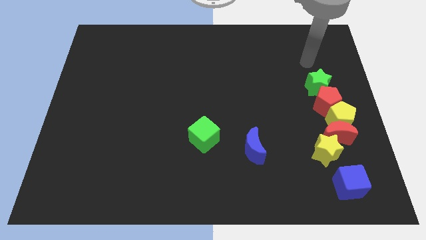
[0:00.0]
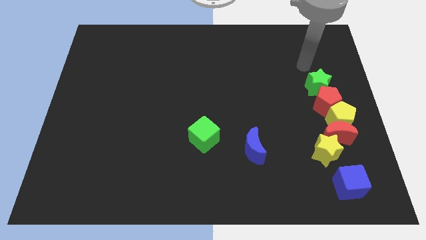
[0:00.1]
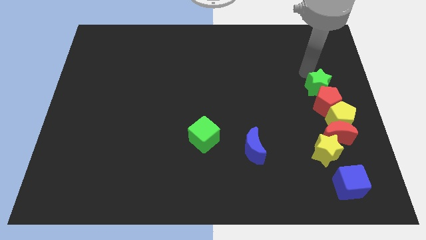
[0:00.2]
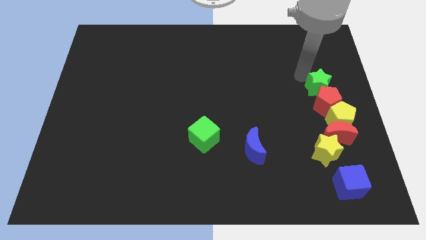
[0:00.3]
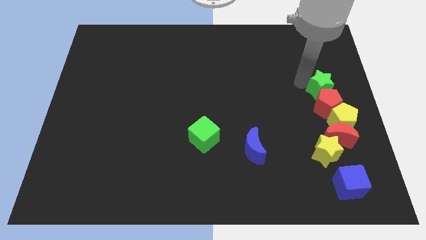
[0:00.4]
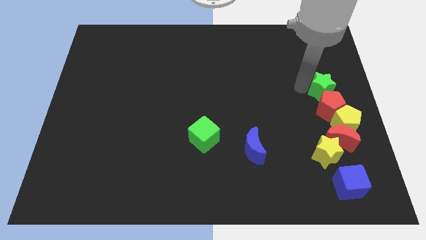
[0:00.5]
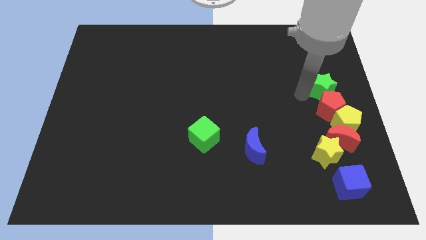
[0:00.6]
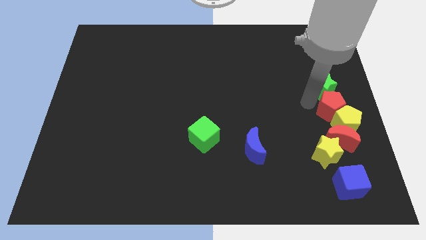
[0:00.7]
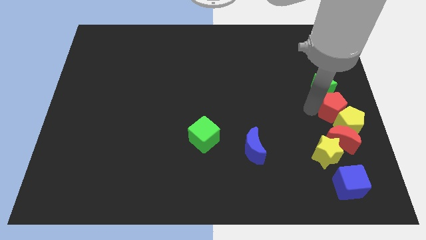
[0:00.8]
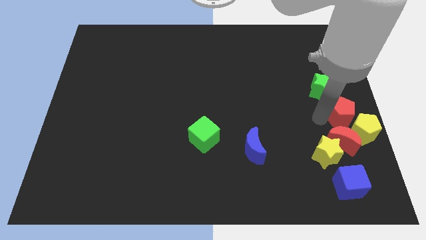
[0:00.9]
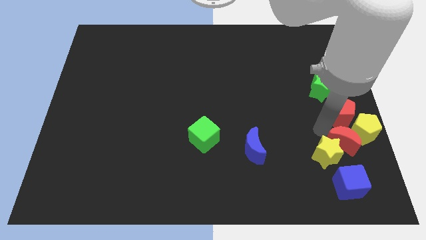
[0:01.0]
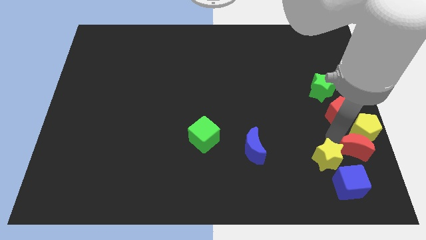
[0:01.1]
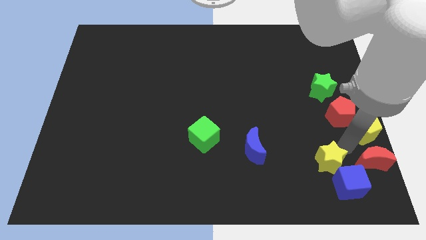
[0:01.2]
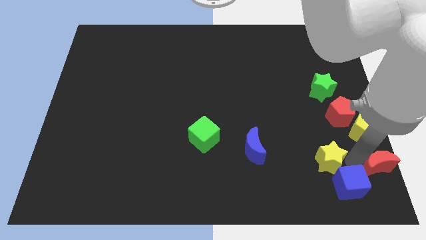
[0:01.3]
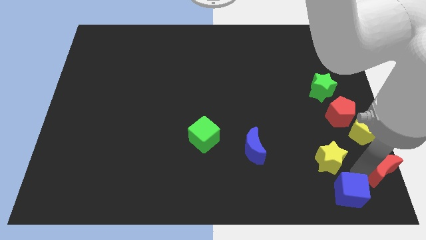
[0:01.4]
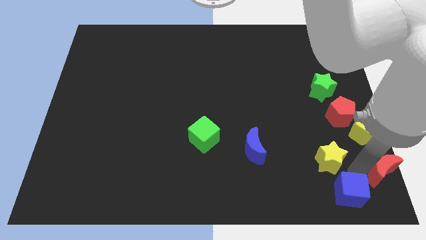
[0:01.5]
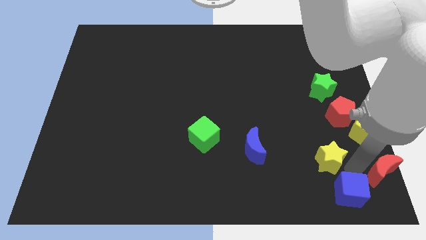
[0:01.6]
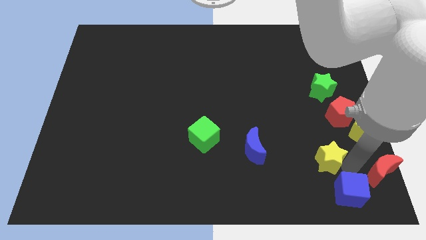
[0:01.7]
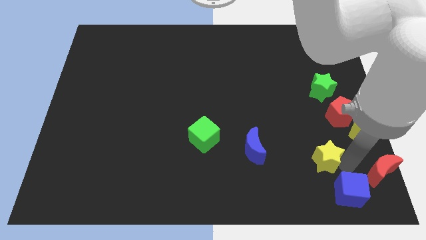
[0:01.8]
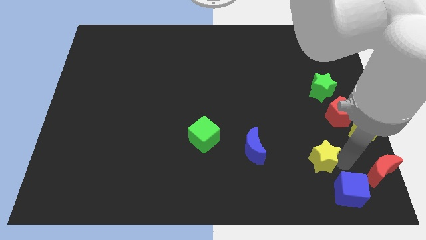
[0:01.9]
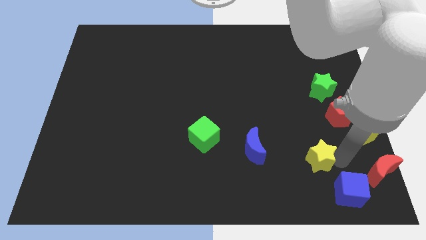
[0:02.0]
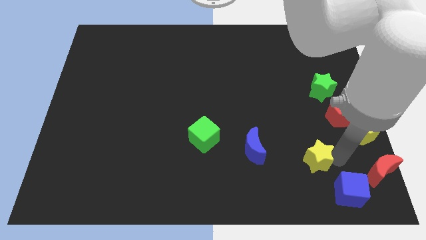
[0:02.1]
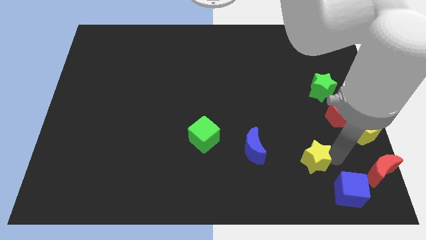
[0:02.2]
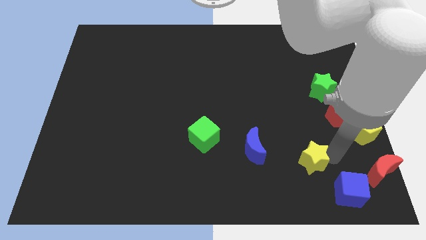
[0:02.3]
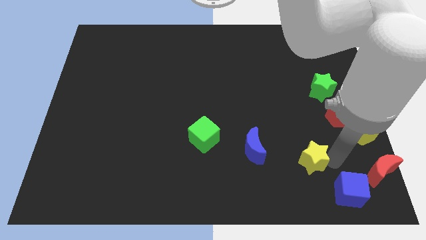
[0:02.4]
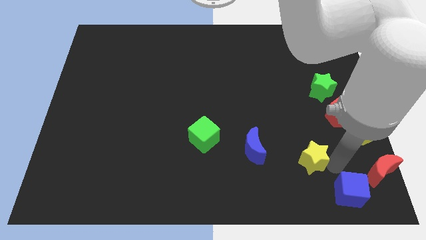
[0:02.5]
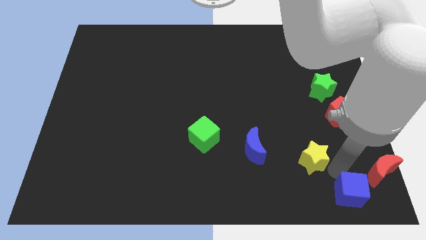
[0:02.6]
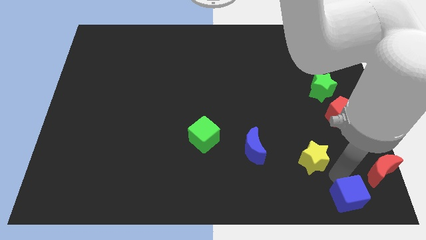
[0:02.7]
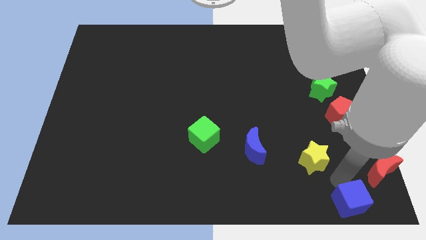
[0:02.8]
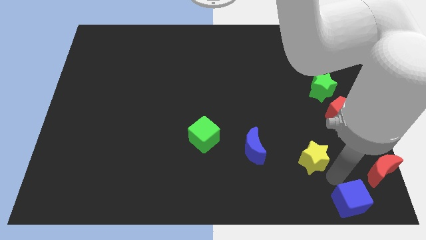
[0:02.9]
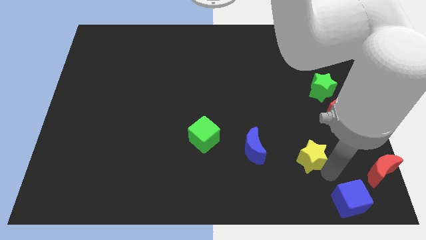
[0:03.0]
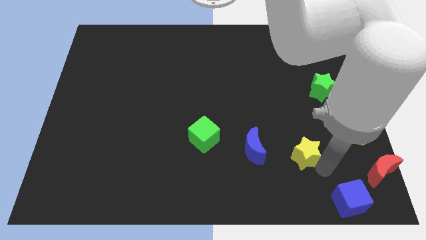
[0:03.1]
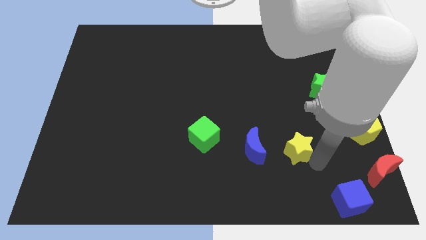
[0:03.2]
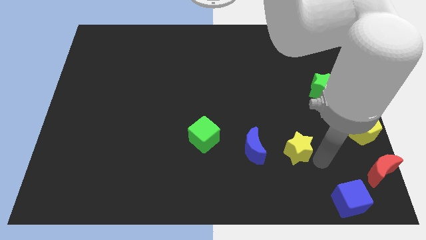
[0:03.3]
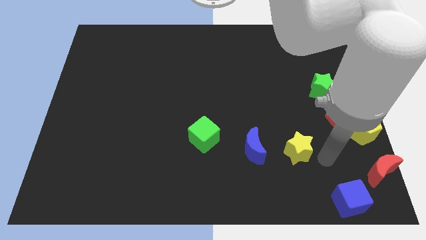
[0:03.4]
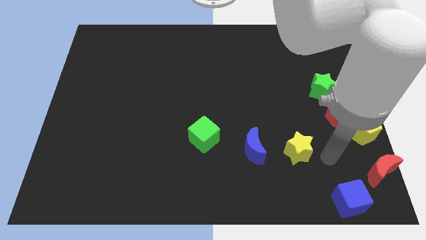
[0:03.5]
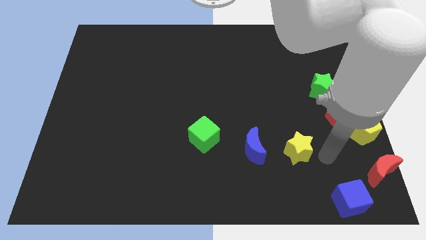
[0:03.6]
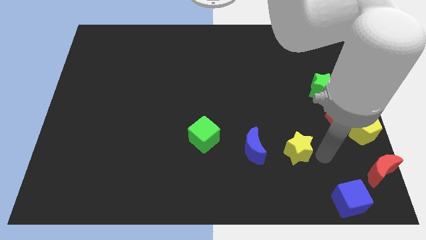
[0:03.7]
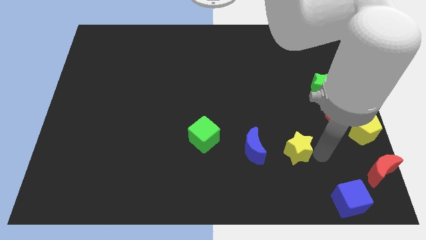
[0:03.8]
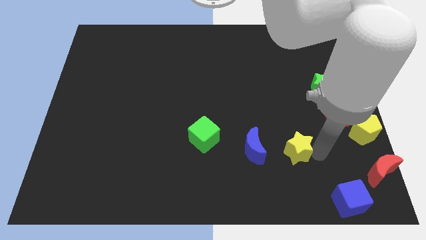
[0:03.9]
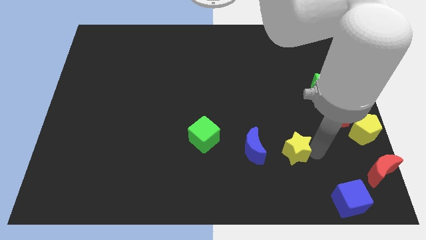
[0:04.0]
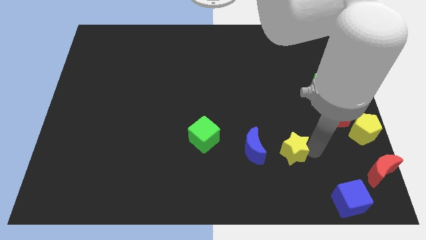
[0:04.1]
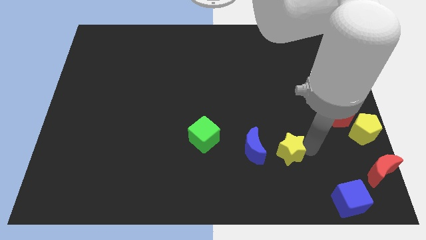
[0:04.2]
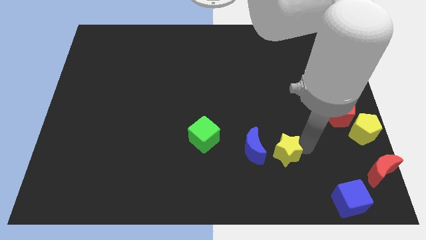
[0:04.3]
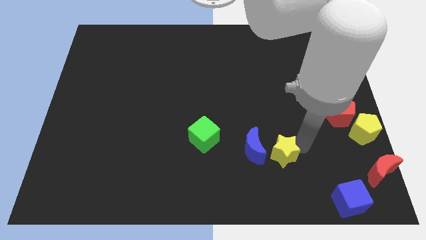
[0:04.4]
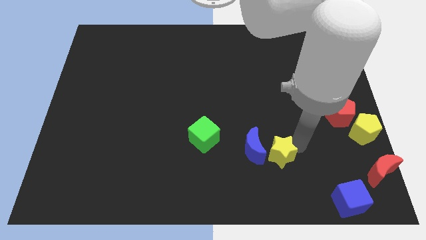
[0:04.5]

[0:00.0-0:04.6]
push the yellow star towards the blue moon

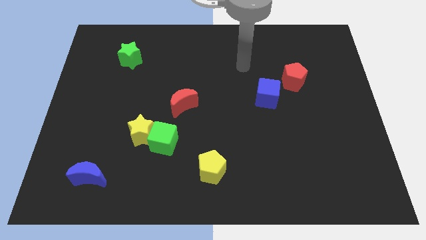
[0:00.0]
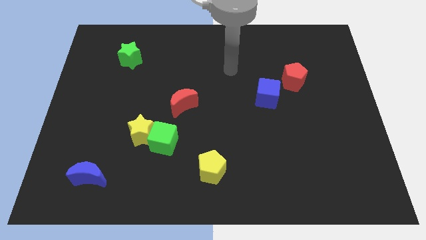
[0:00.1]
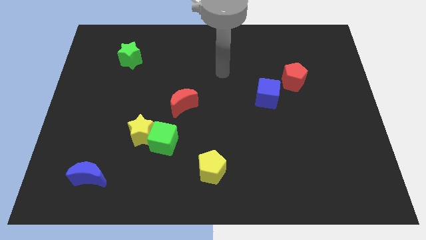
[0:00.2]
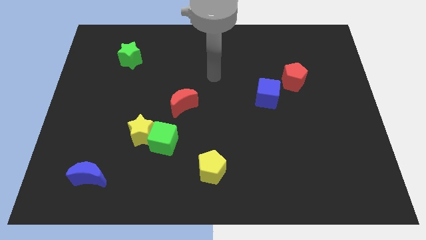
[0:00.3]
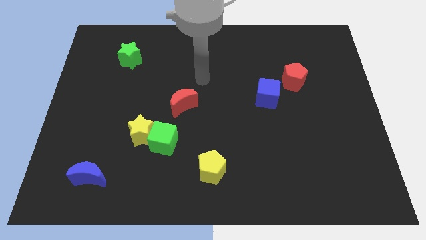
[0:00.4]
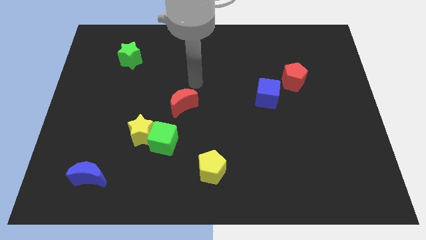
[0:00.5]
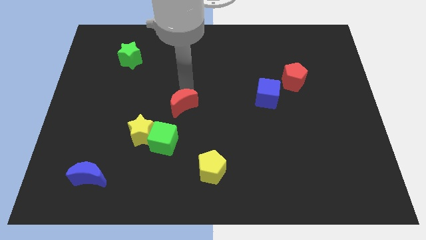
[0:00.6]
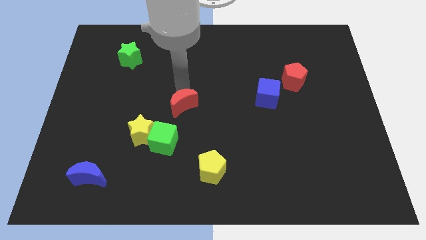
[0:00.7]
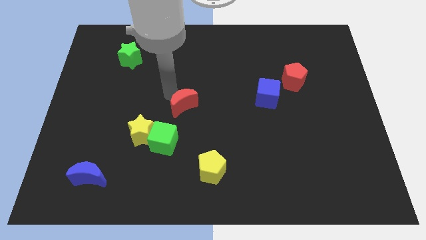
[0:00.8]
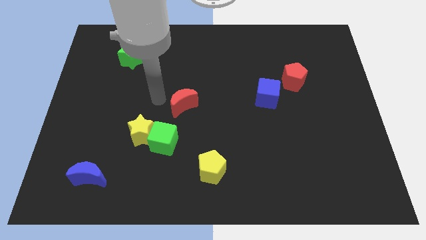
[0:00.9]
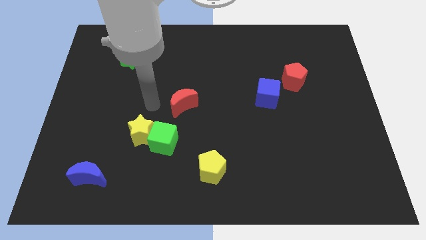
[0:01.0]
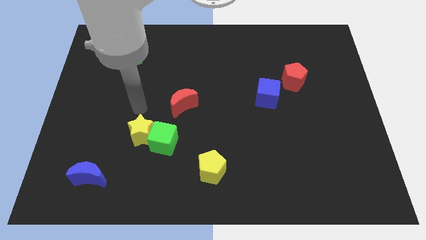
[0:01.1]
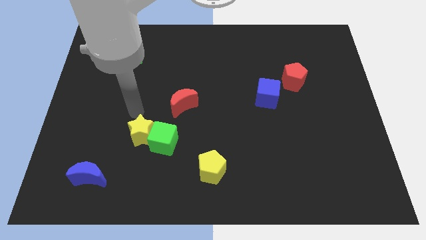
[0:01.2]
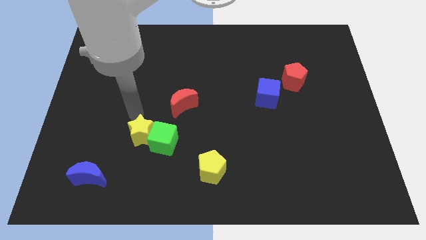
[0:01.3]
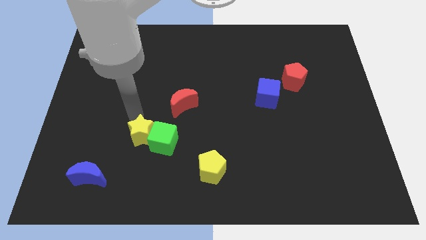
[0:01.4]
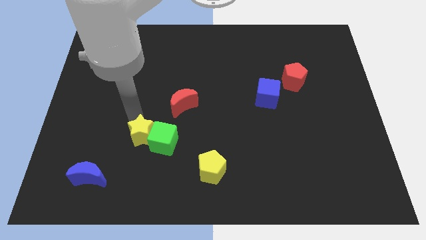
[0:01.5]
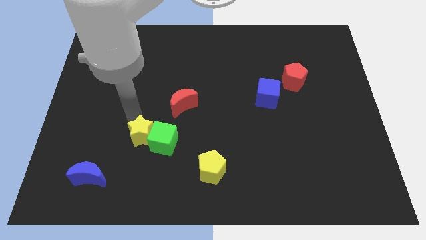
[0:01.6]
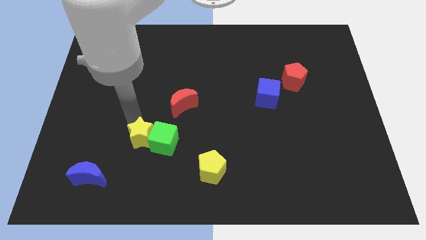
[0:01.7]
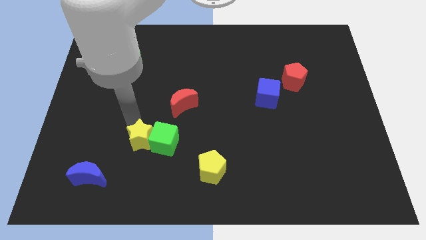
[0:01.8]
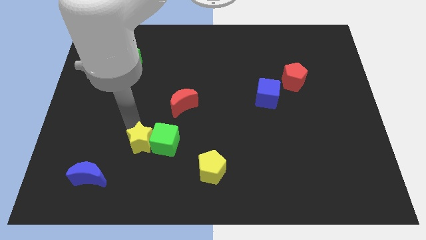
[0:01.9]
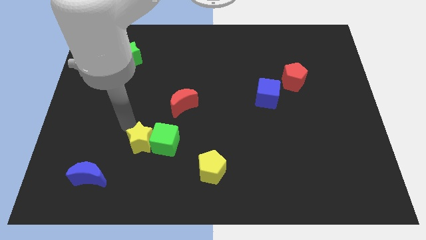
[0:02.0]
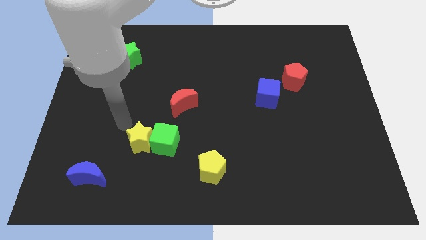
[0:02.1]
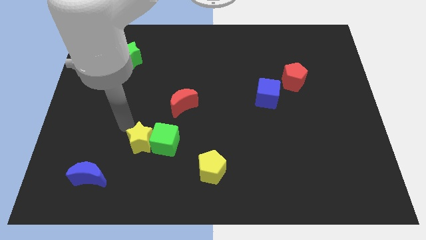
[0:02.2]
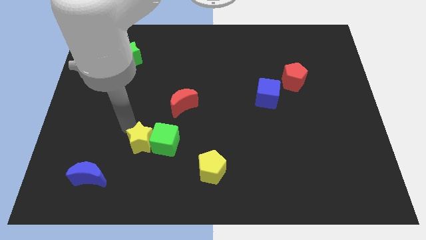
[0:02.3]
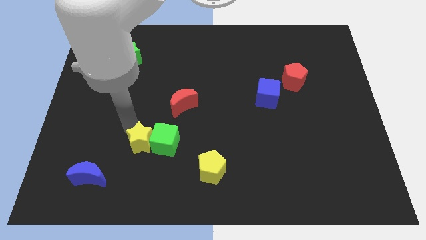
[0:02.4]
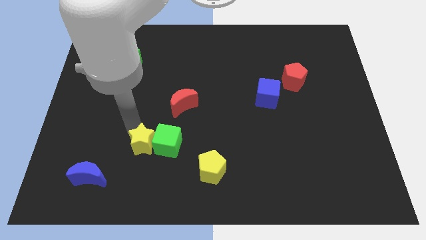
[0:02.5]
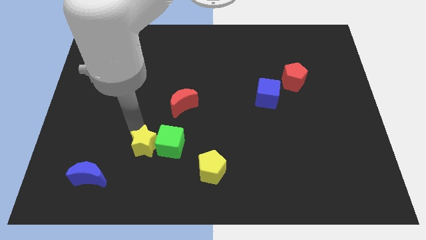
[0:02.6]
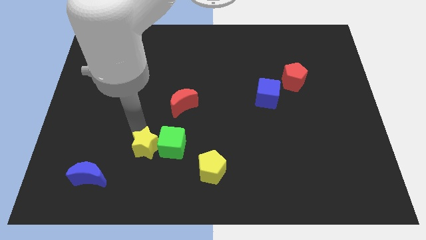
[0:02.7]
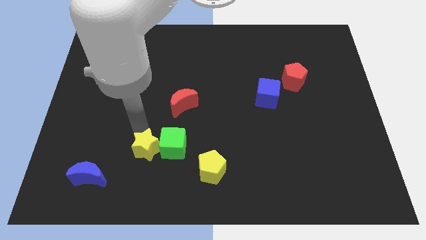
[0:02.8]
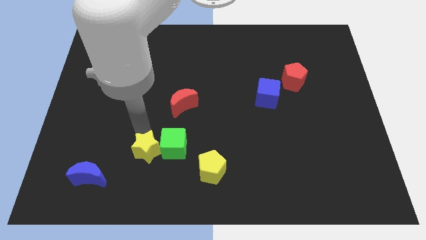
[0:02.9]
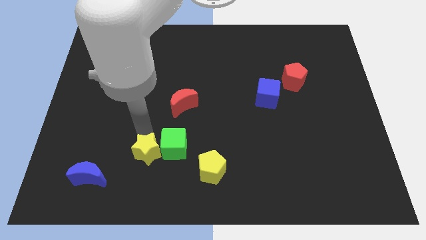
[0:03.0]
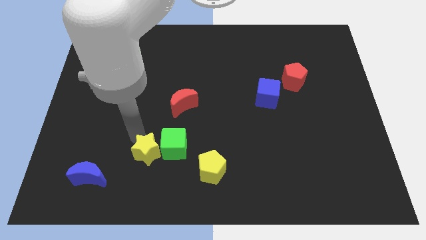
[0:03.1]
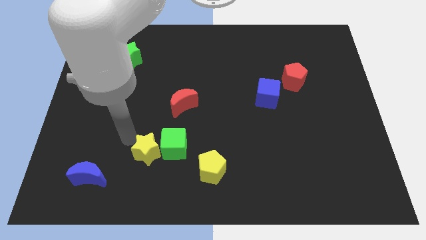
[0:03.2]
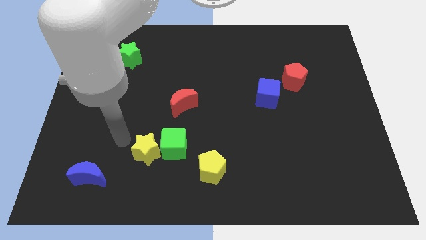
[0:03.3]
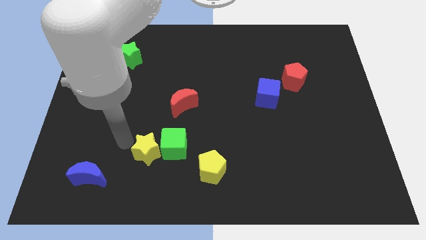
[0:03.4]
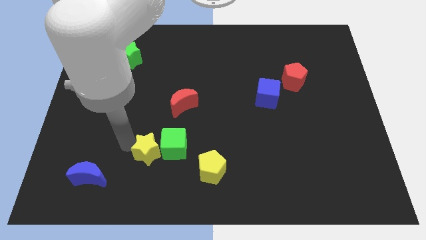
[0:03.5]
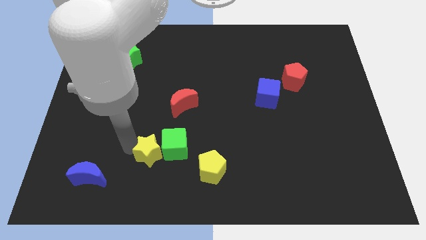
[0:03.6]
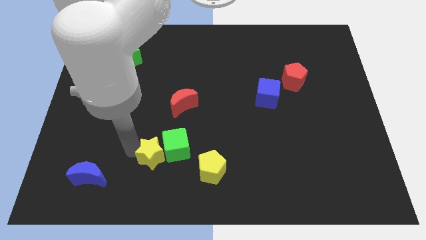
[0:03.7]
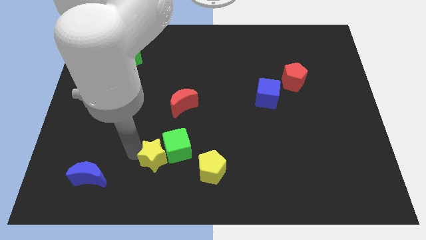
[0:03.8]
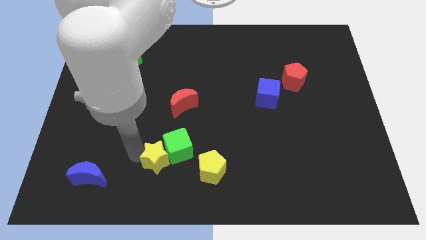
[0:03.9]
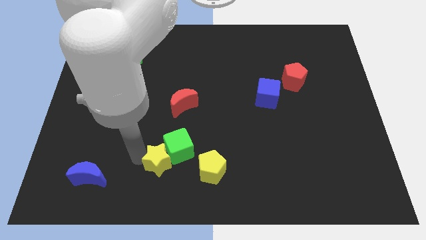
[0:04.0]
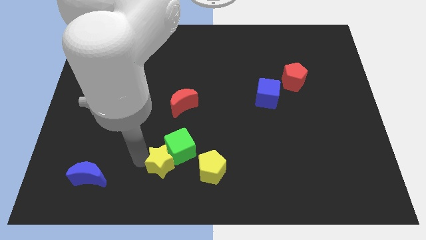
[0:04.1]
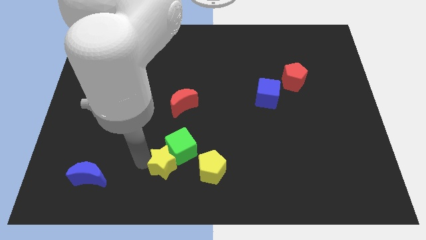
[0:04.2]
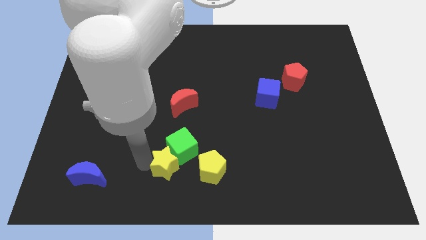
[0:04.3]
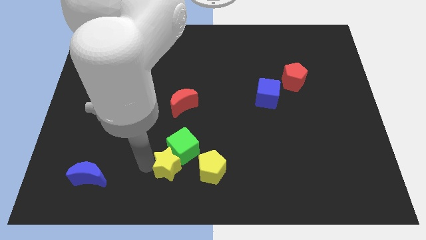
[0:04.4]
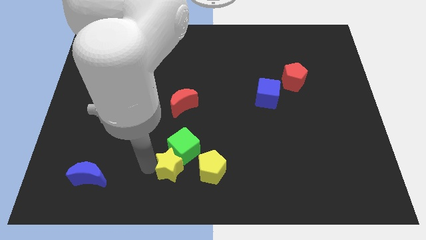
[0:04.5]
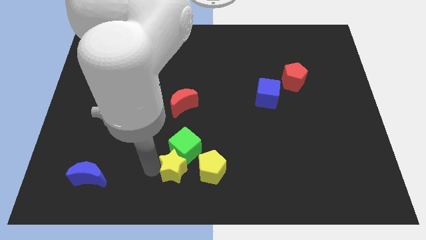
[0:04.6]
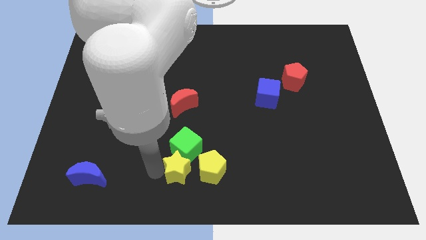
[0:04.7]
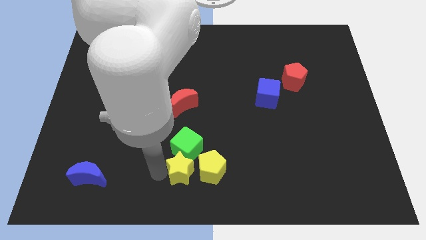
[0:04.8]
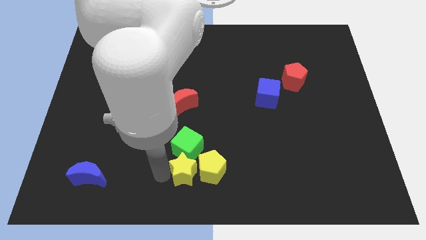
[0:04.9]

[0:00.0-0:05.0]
move the yellow star next to the yellow pentagon
